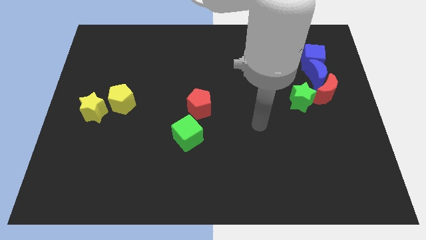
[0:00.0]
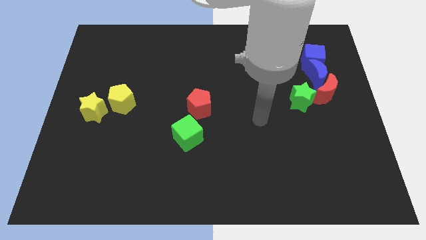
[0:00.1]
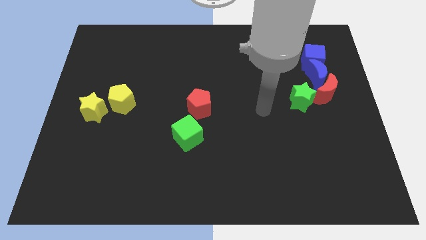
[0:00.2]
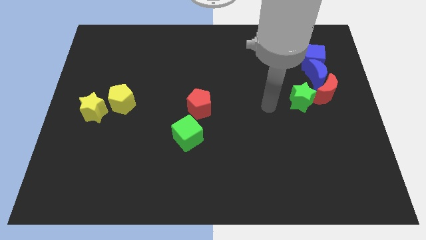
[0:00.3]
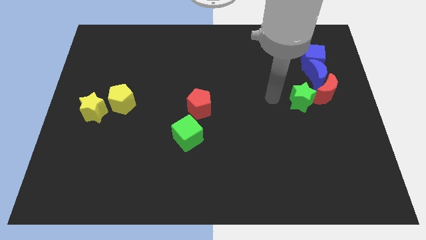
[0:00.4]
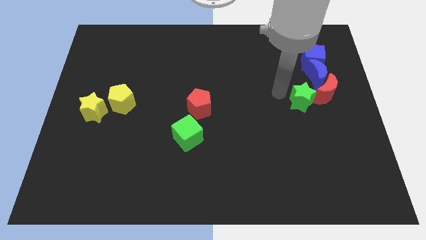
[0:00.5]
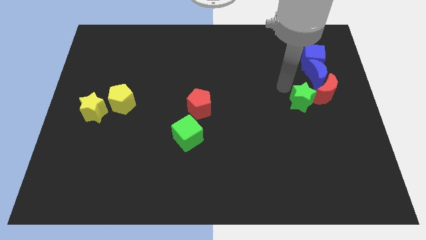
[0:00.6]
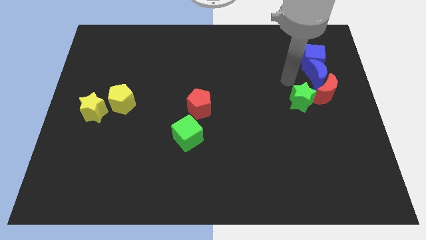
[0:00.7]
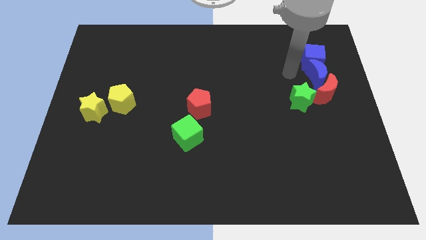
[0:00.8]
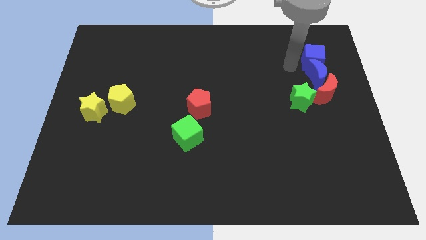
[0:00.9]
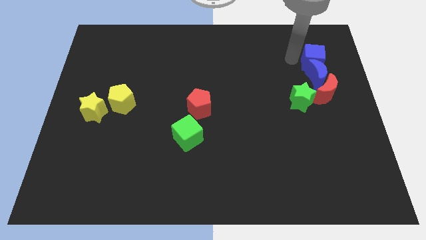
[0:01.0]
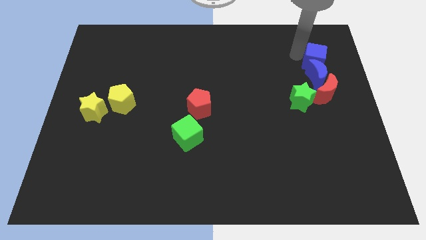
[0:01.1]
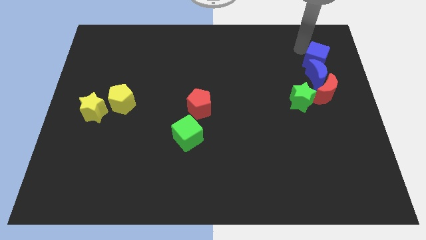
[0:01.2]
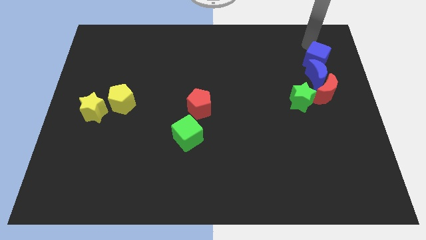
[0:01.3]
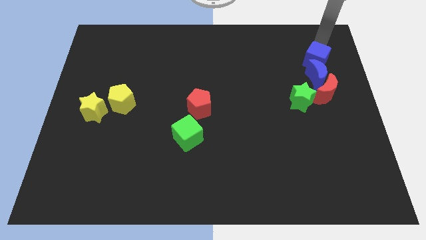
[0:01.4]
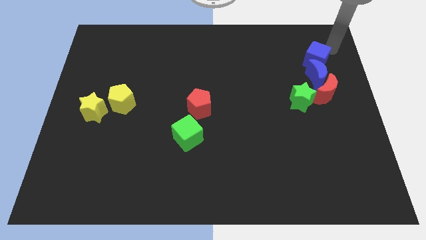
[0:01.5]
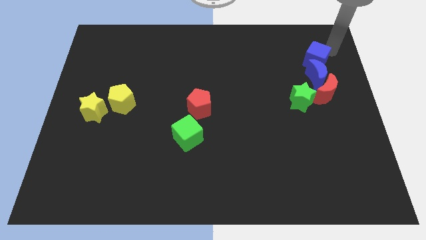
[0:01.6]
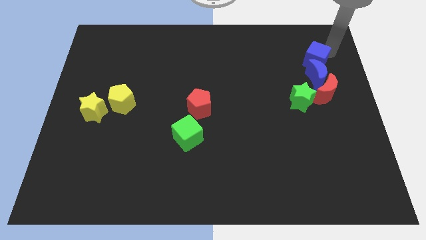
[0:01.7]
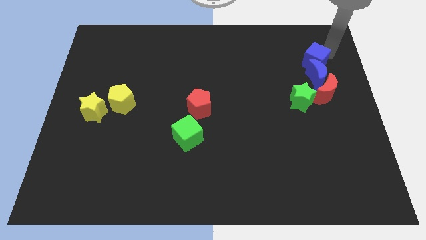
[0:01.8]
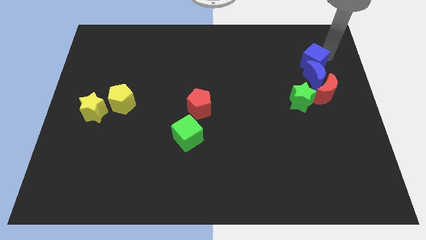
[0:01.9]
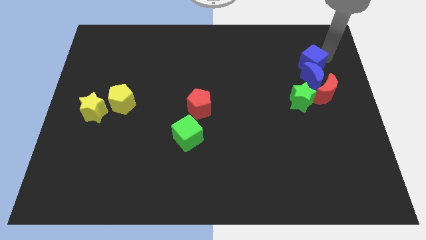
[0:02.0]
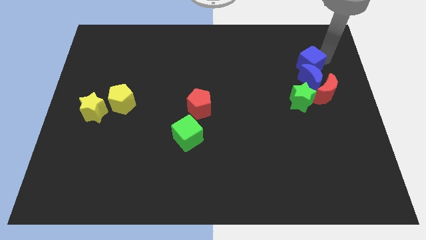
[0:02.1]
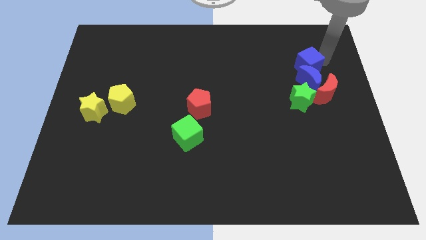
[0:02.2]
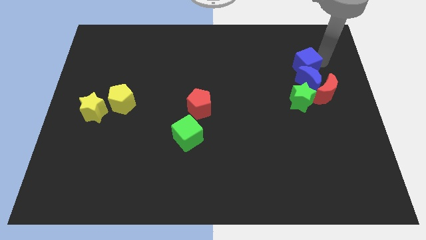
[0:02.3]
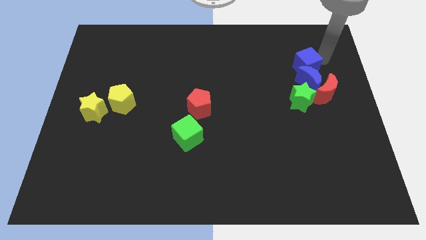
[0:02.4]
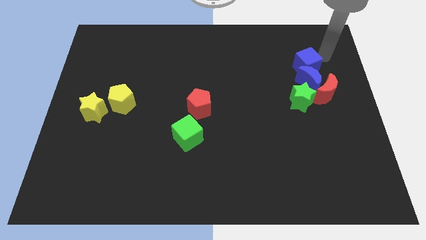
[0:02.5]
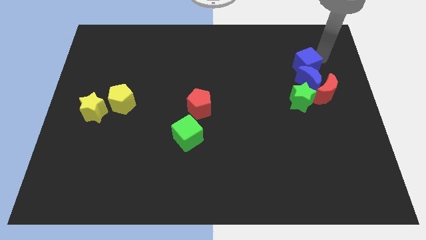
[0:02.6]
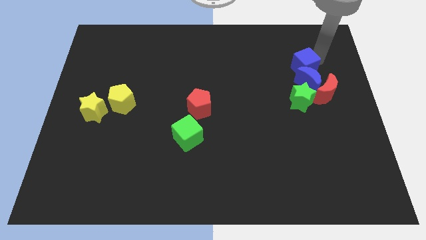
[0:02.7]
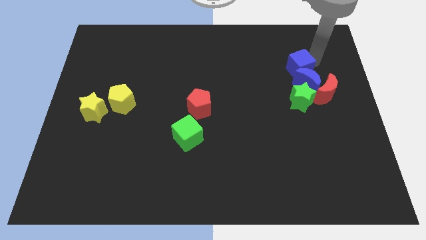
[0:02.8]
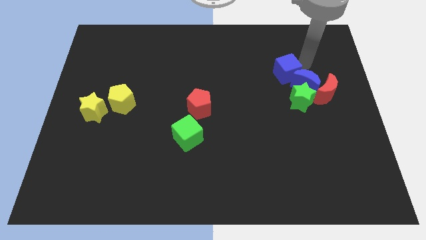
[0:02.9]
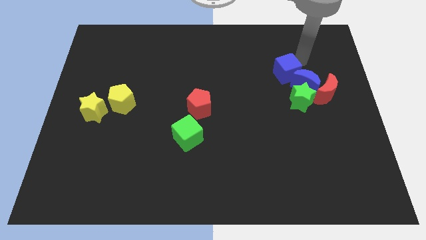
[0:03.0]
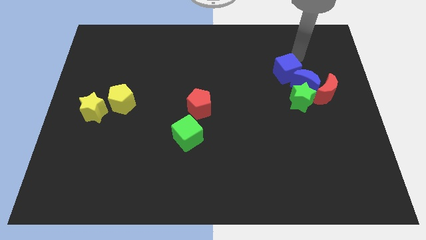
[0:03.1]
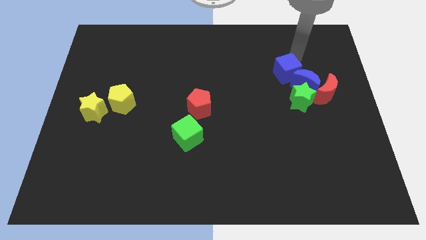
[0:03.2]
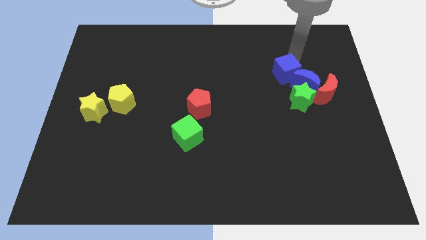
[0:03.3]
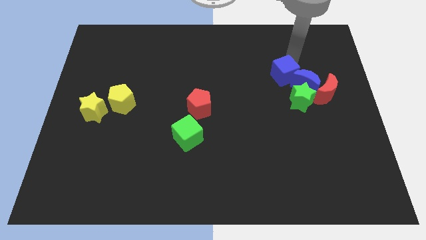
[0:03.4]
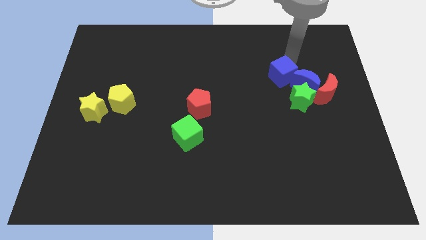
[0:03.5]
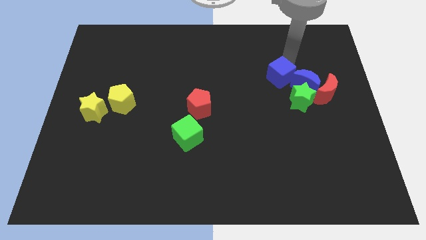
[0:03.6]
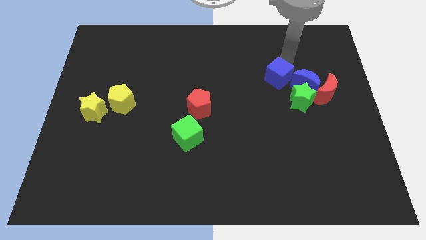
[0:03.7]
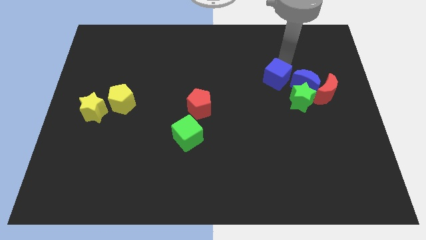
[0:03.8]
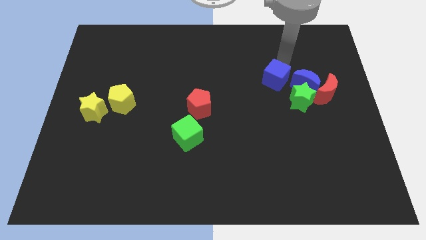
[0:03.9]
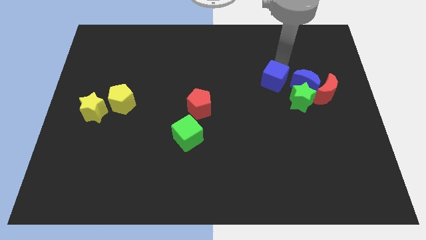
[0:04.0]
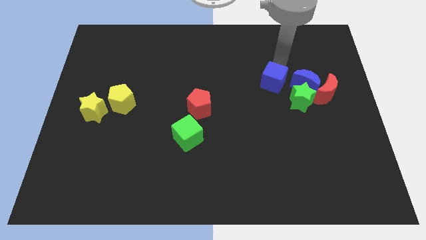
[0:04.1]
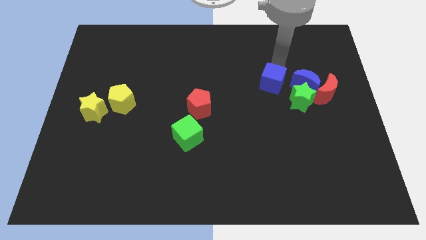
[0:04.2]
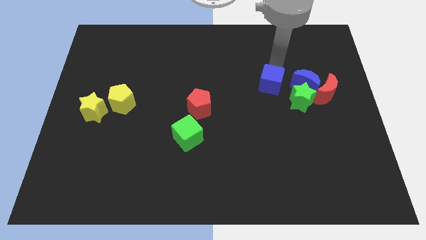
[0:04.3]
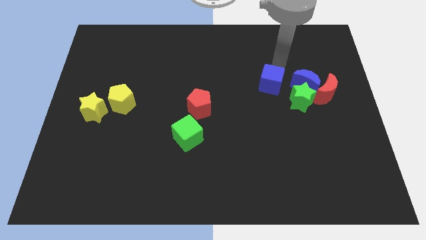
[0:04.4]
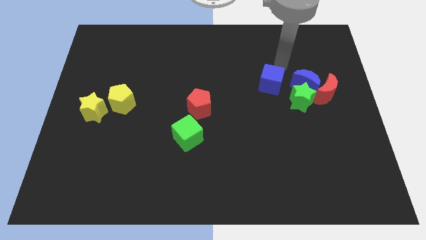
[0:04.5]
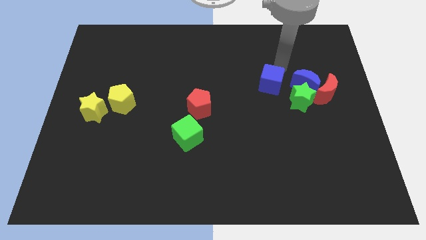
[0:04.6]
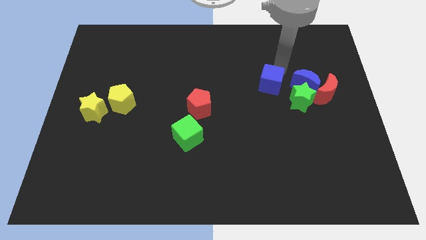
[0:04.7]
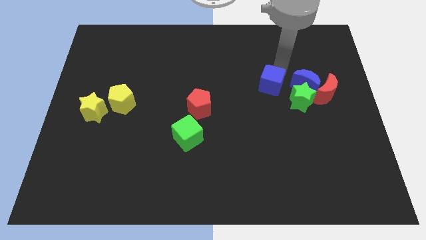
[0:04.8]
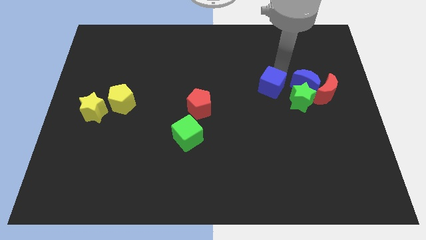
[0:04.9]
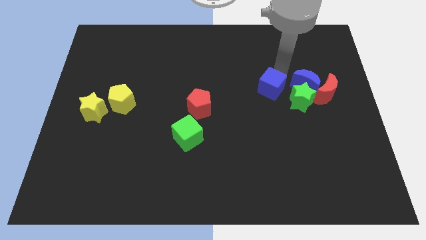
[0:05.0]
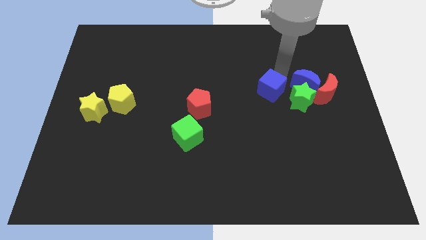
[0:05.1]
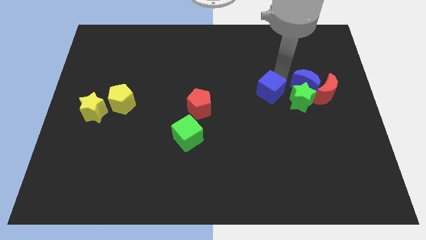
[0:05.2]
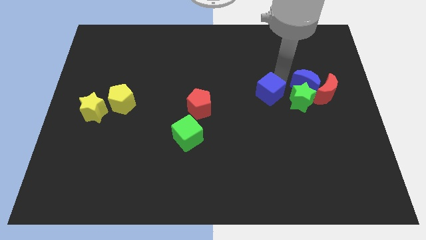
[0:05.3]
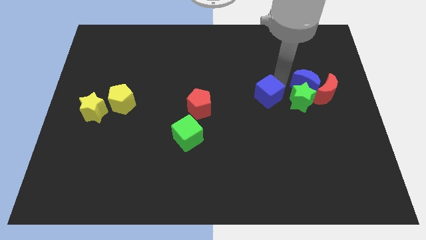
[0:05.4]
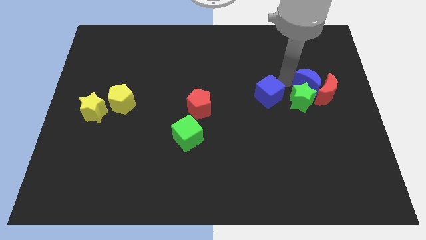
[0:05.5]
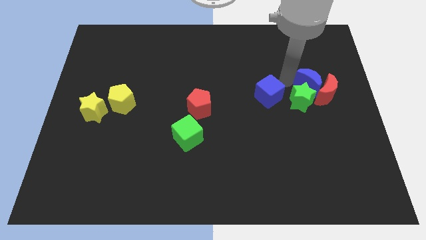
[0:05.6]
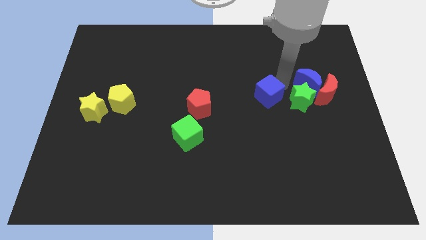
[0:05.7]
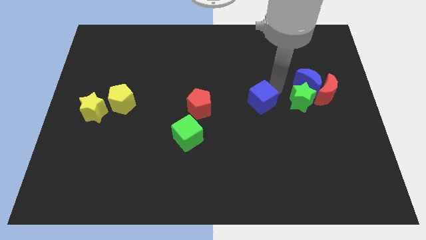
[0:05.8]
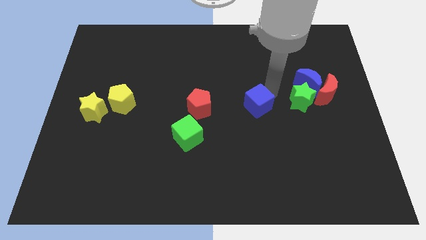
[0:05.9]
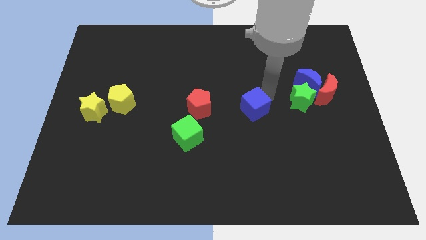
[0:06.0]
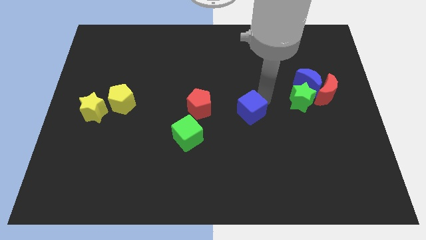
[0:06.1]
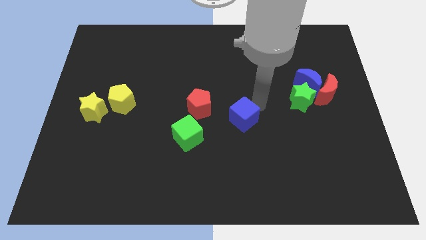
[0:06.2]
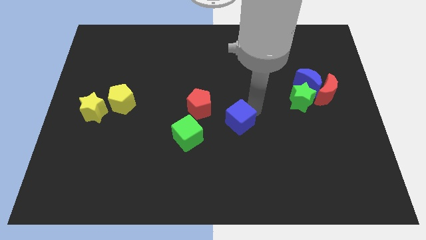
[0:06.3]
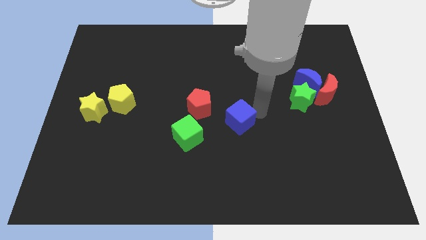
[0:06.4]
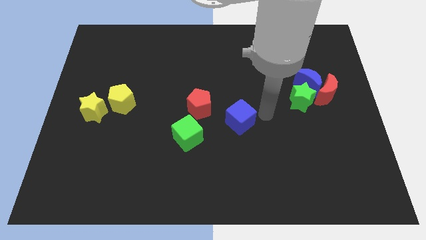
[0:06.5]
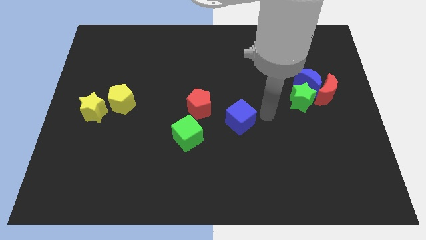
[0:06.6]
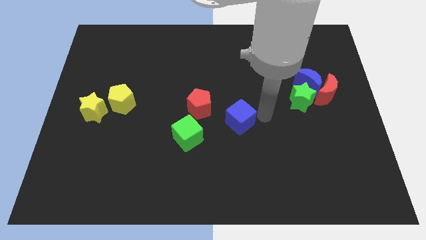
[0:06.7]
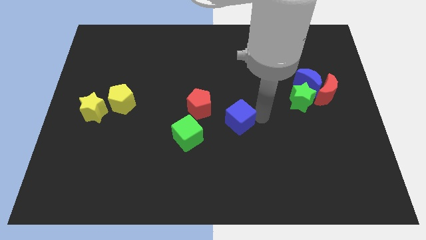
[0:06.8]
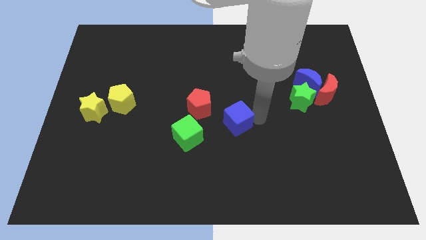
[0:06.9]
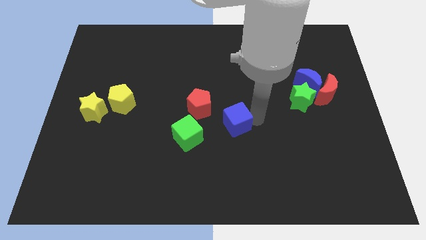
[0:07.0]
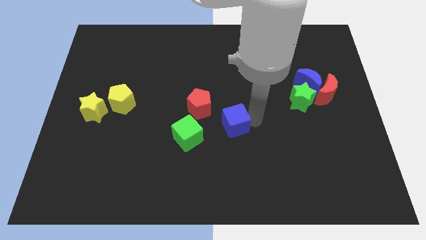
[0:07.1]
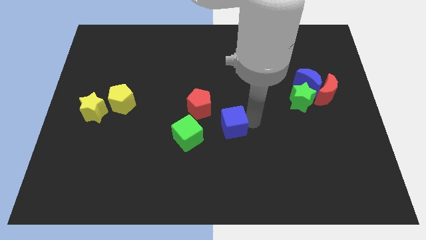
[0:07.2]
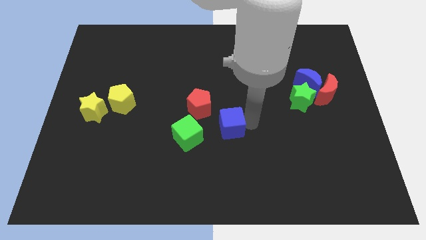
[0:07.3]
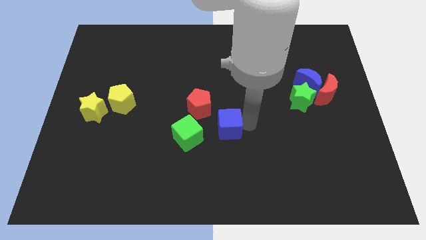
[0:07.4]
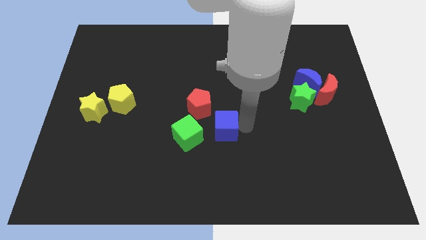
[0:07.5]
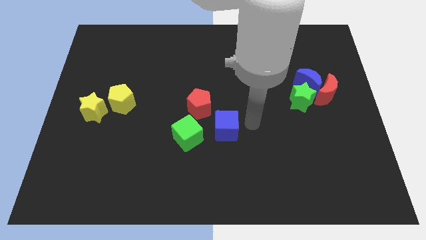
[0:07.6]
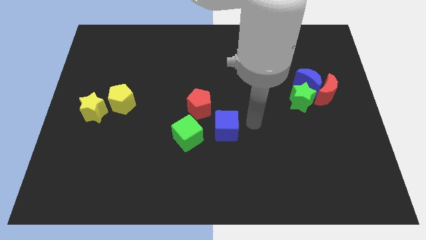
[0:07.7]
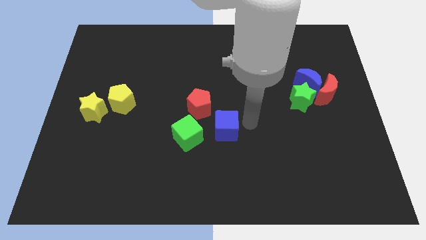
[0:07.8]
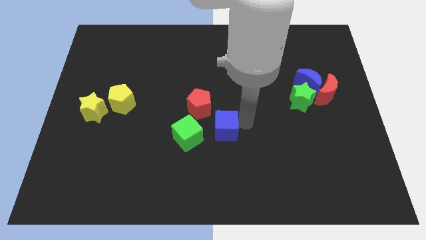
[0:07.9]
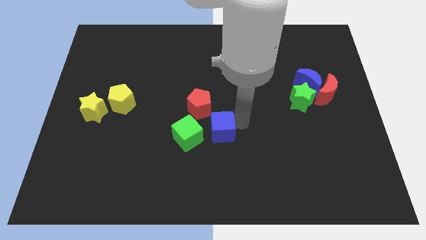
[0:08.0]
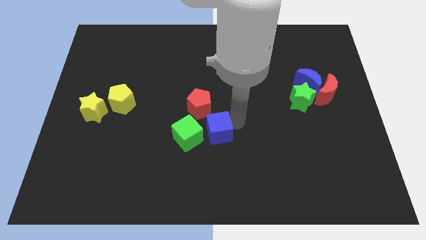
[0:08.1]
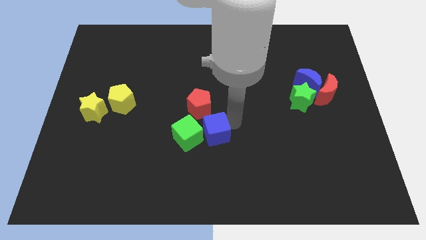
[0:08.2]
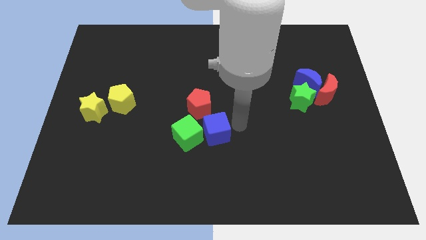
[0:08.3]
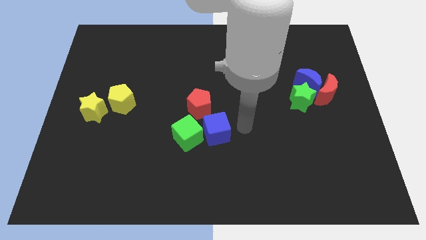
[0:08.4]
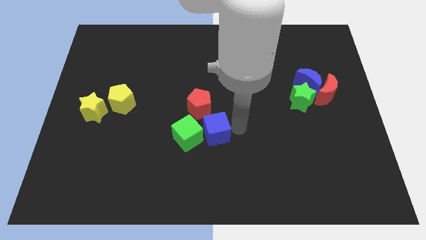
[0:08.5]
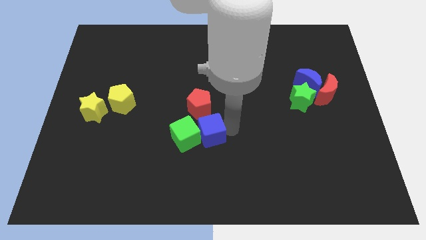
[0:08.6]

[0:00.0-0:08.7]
put the blue cube next to the green cube
